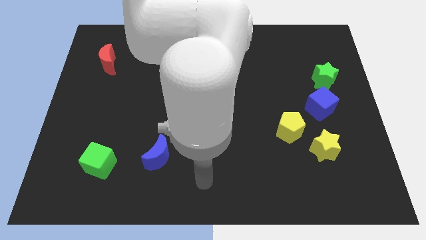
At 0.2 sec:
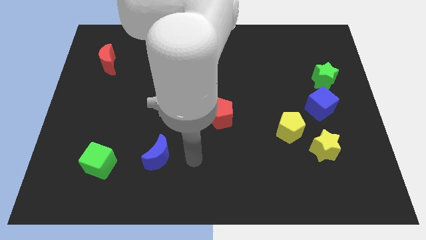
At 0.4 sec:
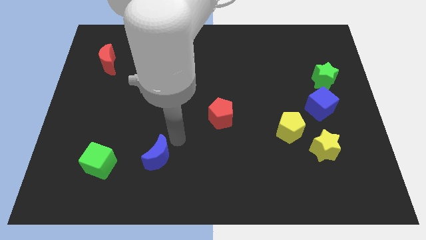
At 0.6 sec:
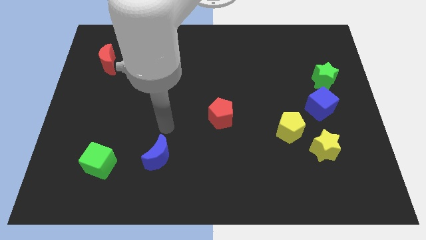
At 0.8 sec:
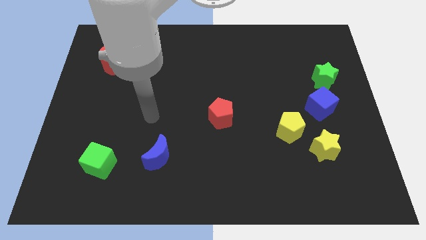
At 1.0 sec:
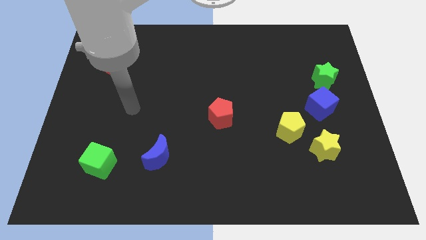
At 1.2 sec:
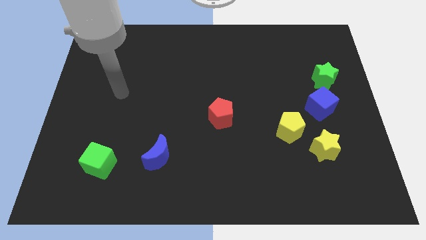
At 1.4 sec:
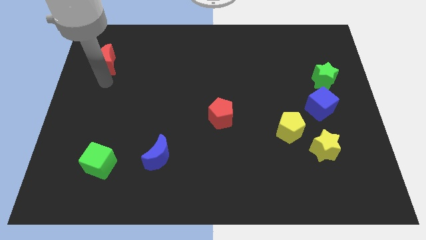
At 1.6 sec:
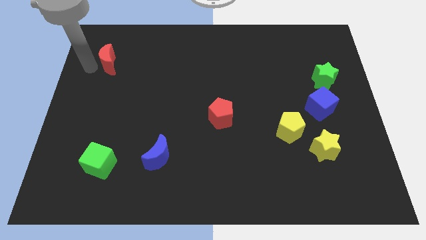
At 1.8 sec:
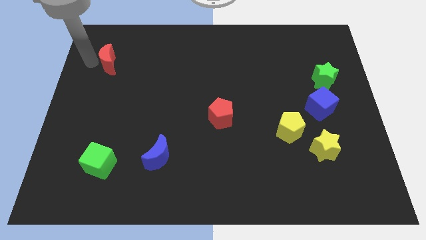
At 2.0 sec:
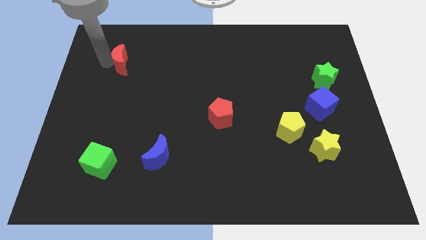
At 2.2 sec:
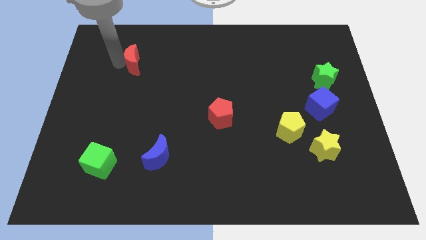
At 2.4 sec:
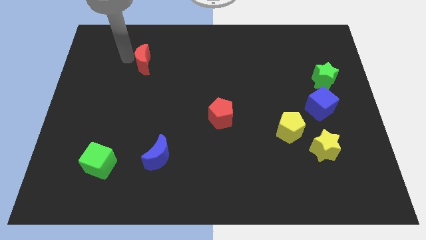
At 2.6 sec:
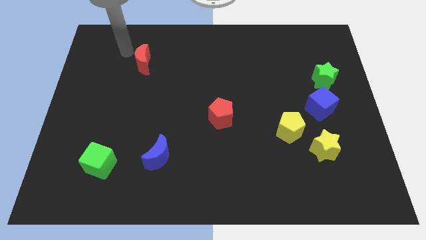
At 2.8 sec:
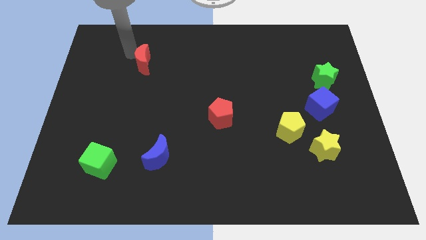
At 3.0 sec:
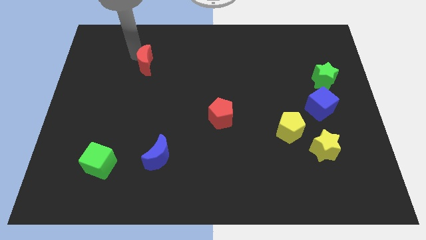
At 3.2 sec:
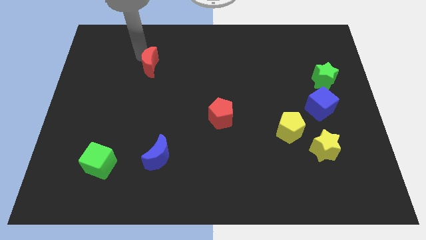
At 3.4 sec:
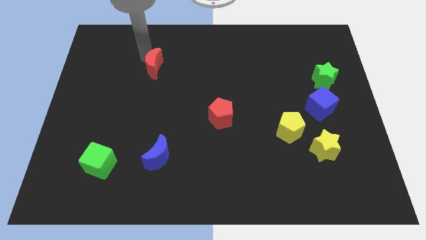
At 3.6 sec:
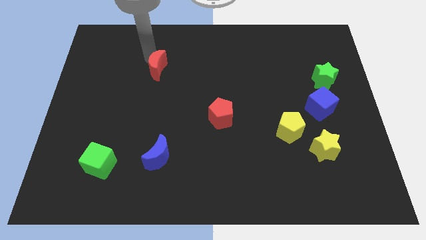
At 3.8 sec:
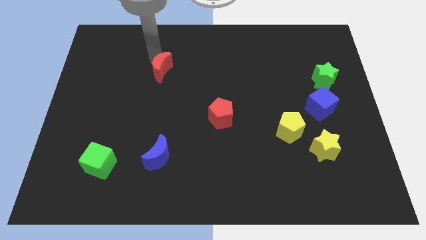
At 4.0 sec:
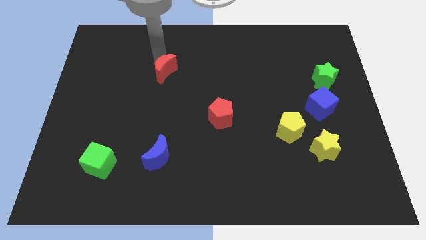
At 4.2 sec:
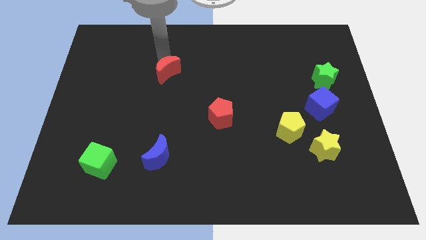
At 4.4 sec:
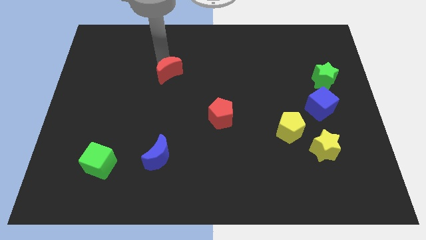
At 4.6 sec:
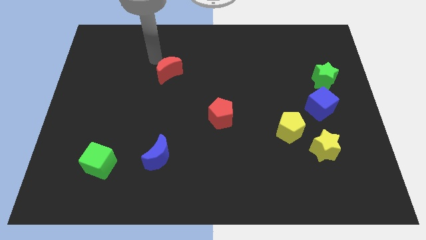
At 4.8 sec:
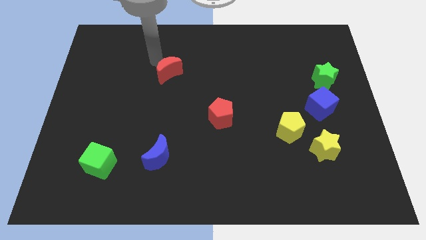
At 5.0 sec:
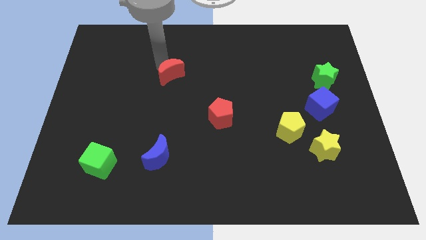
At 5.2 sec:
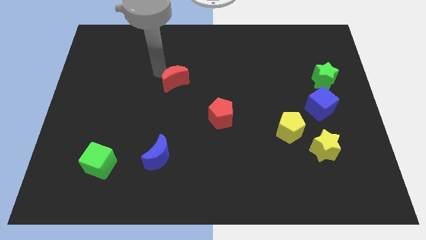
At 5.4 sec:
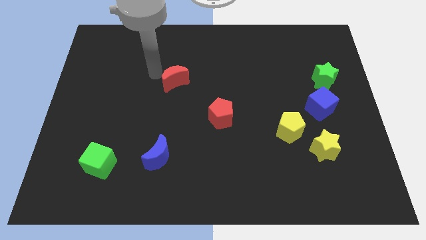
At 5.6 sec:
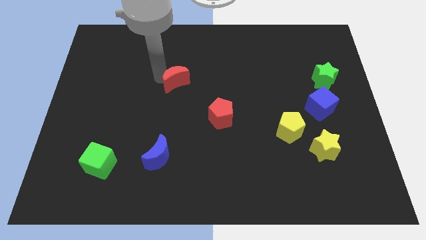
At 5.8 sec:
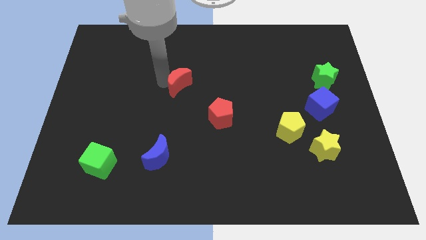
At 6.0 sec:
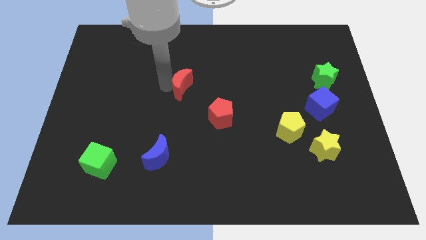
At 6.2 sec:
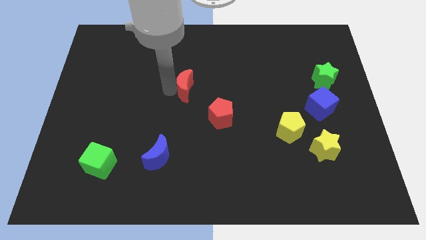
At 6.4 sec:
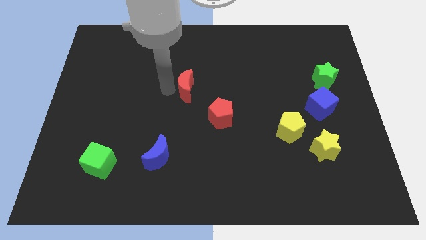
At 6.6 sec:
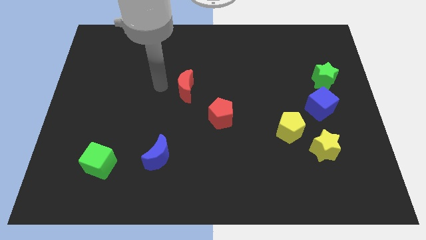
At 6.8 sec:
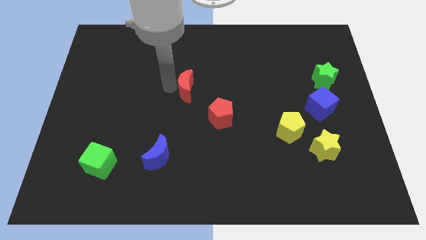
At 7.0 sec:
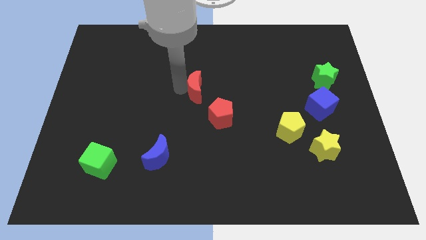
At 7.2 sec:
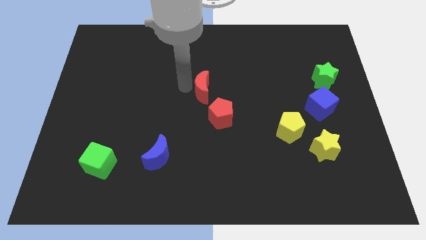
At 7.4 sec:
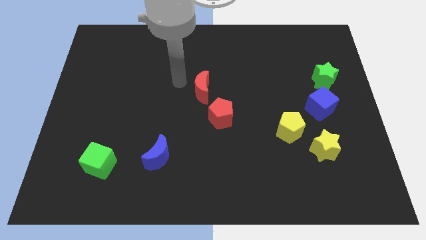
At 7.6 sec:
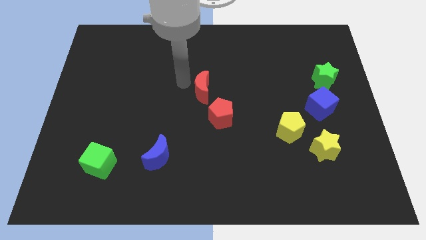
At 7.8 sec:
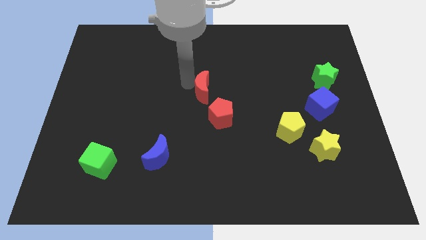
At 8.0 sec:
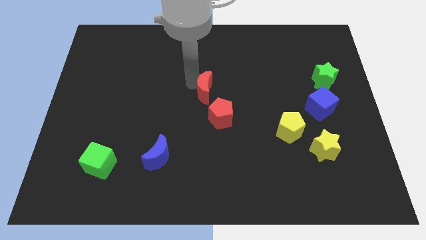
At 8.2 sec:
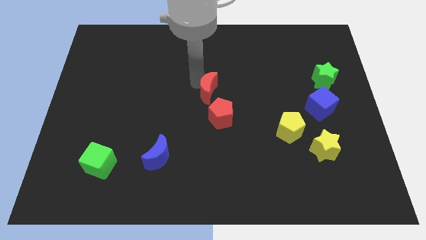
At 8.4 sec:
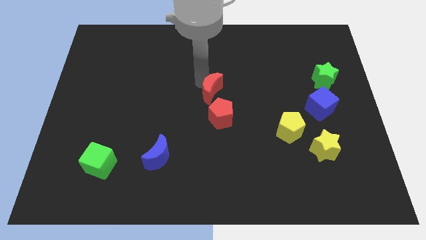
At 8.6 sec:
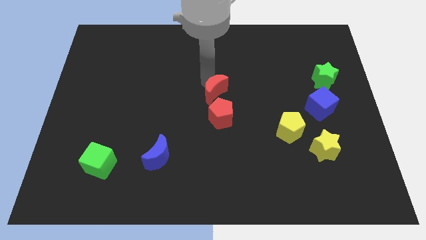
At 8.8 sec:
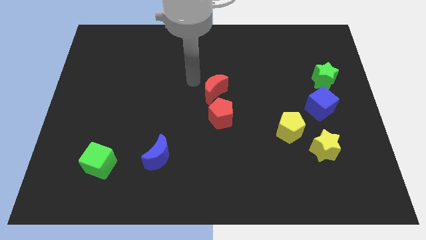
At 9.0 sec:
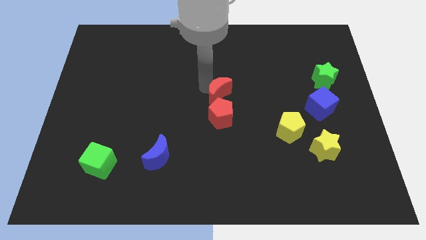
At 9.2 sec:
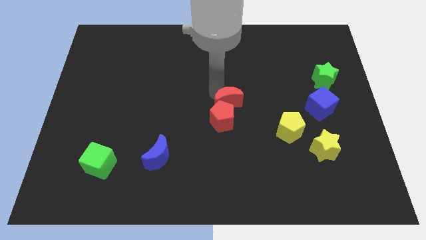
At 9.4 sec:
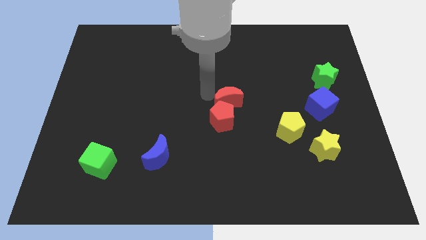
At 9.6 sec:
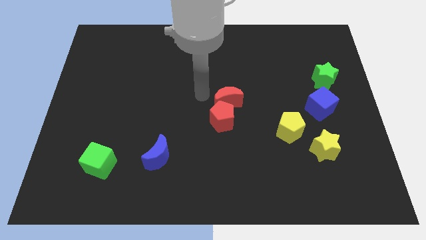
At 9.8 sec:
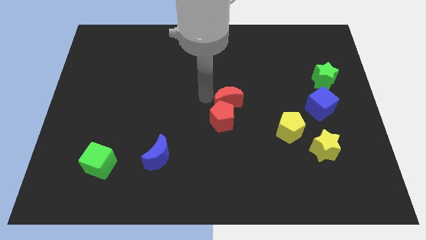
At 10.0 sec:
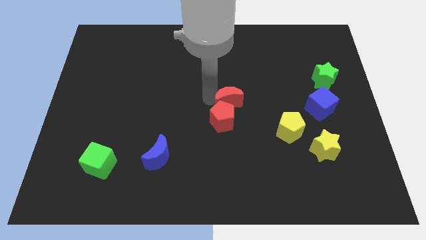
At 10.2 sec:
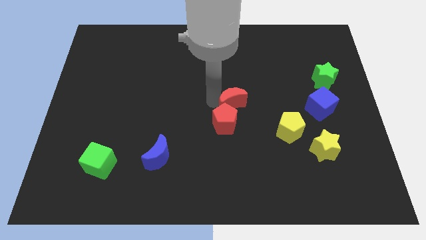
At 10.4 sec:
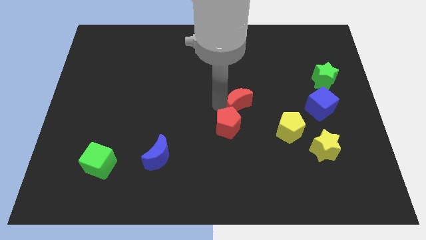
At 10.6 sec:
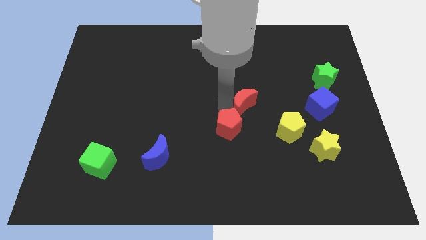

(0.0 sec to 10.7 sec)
slide the red moon to the top left side of the yellow pentagon

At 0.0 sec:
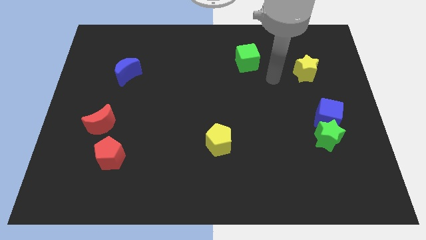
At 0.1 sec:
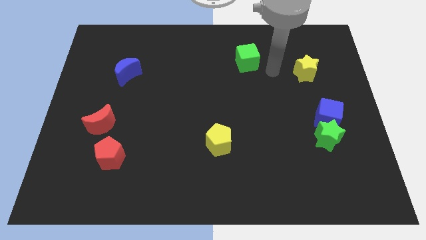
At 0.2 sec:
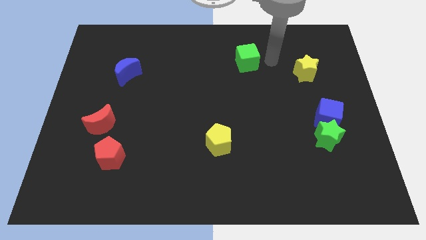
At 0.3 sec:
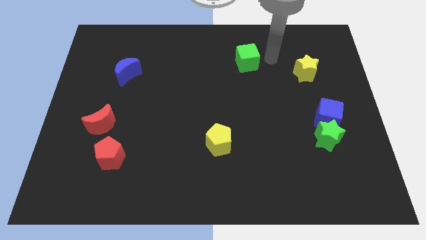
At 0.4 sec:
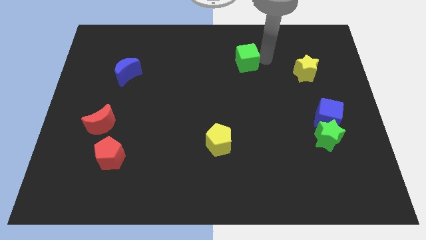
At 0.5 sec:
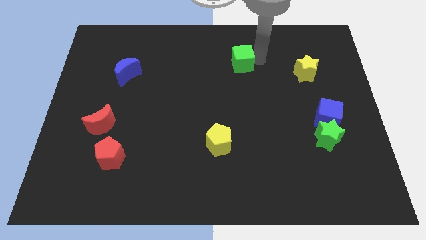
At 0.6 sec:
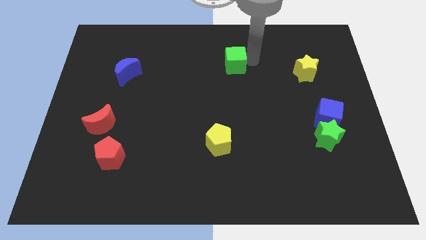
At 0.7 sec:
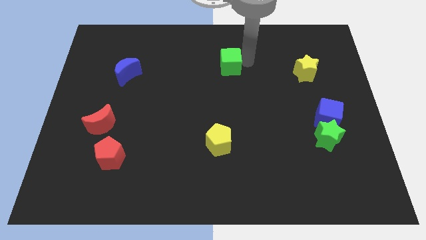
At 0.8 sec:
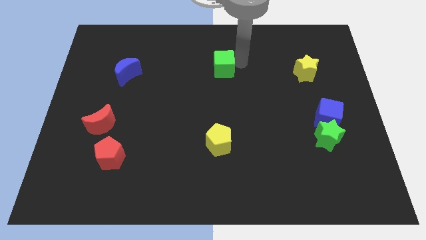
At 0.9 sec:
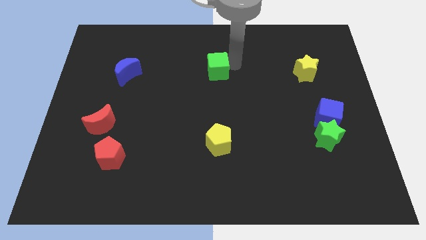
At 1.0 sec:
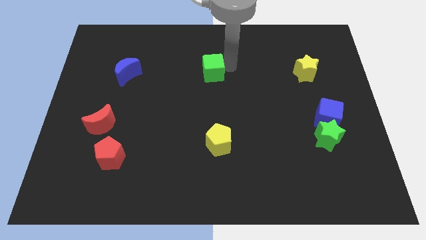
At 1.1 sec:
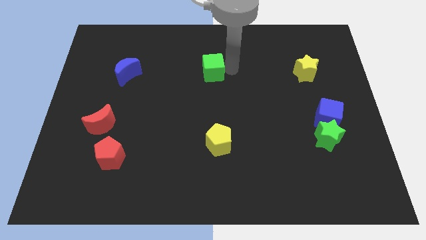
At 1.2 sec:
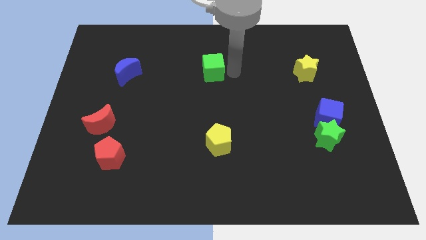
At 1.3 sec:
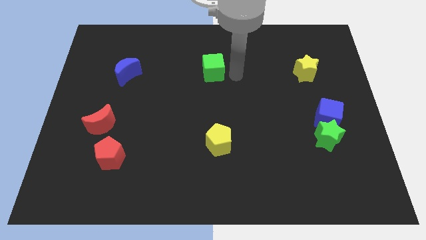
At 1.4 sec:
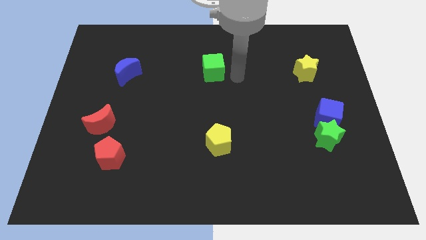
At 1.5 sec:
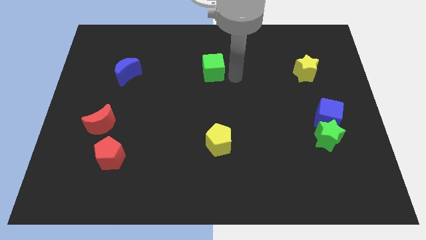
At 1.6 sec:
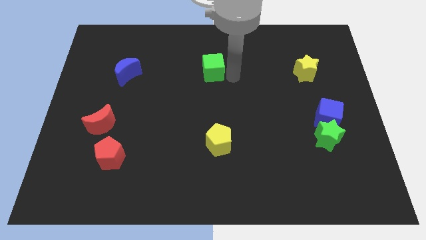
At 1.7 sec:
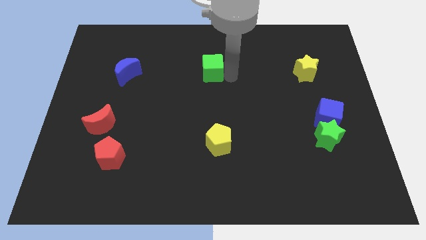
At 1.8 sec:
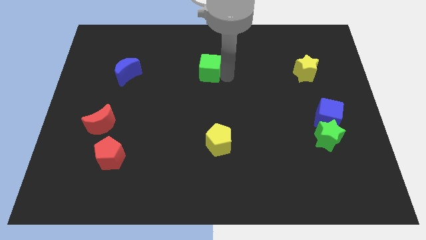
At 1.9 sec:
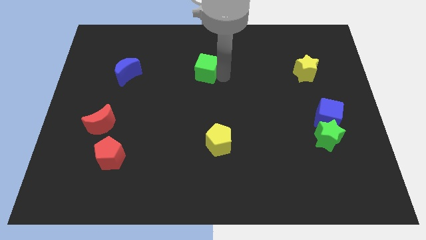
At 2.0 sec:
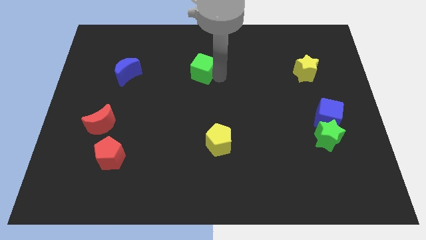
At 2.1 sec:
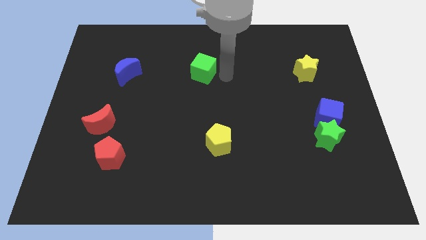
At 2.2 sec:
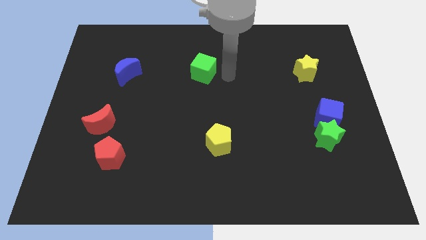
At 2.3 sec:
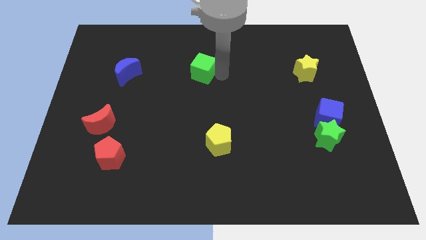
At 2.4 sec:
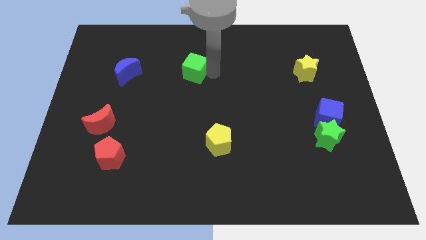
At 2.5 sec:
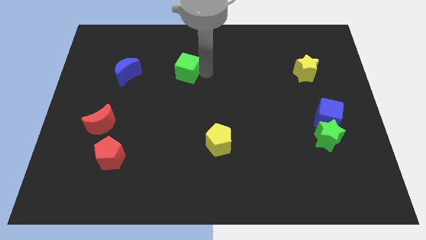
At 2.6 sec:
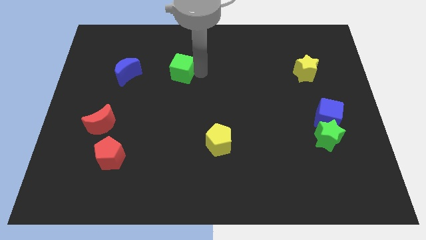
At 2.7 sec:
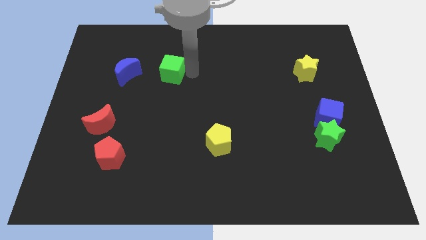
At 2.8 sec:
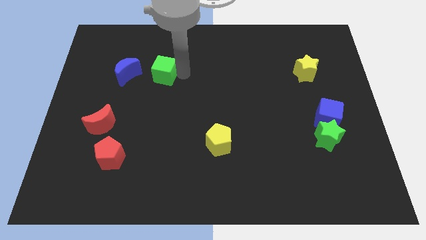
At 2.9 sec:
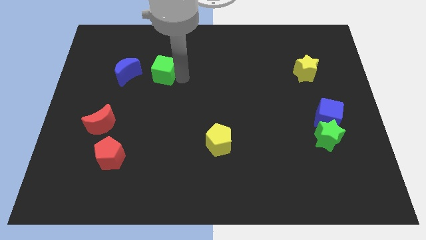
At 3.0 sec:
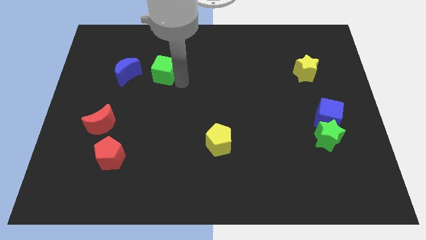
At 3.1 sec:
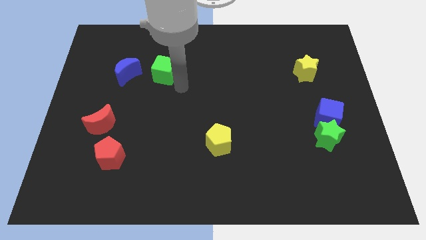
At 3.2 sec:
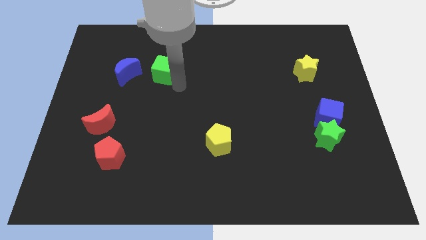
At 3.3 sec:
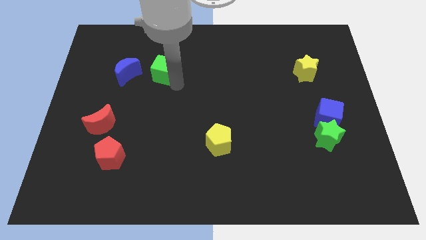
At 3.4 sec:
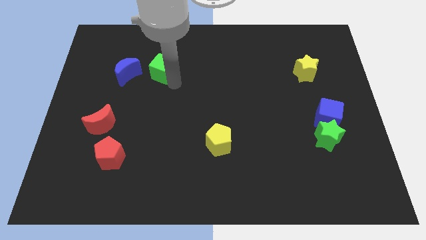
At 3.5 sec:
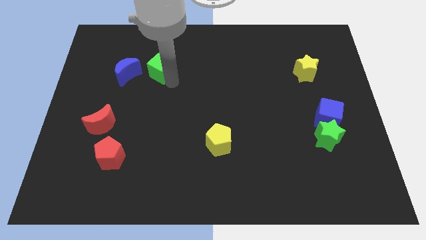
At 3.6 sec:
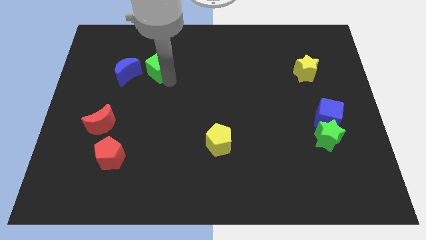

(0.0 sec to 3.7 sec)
put the green cube diagonally up and to the right of the blue moon
